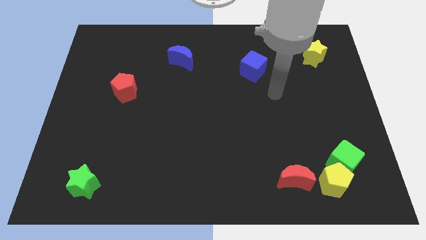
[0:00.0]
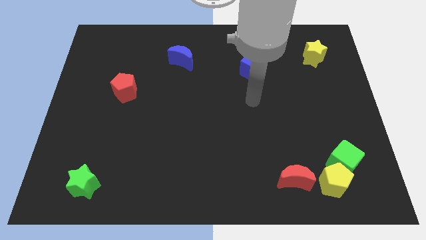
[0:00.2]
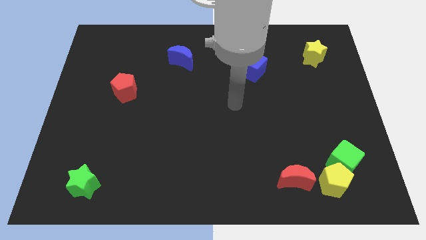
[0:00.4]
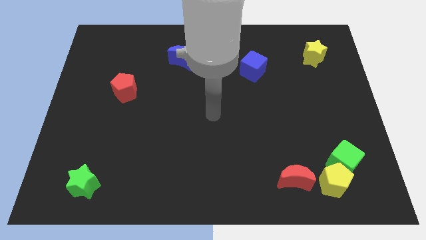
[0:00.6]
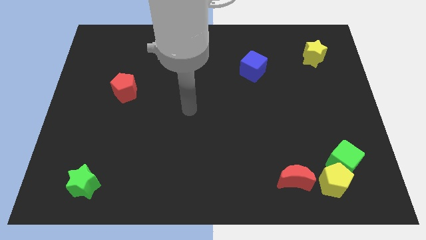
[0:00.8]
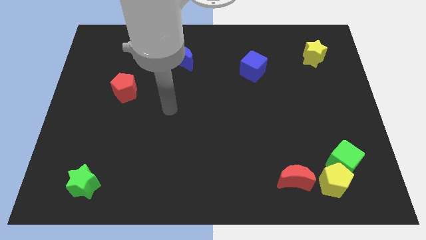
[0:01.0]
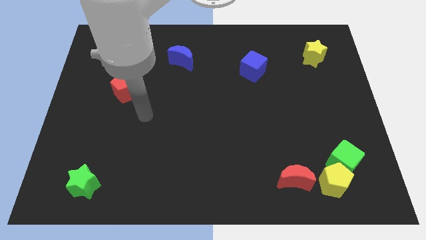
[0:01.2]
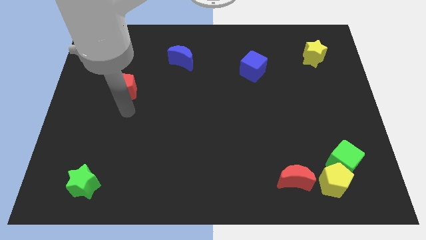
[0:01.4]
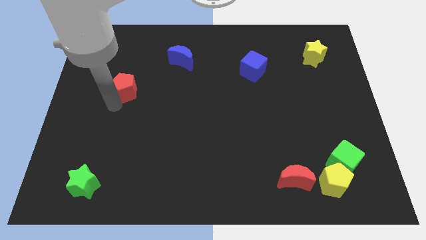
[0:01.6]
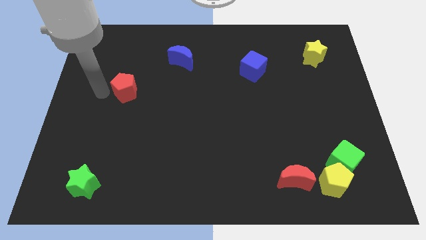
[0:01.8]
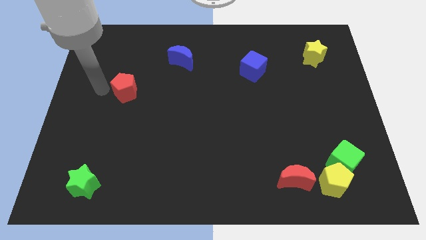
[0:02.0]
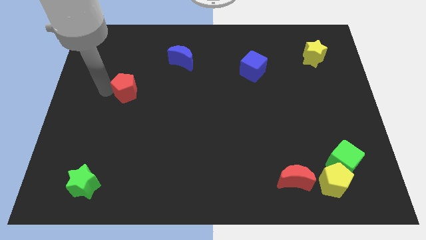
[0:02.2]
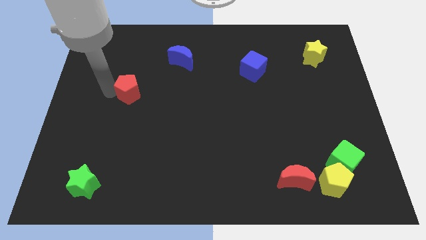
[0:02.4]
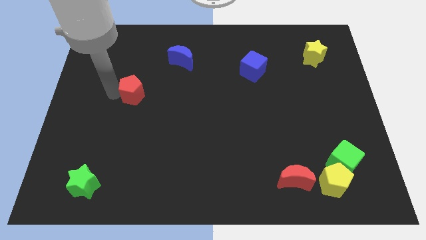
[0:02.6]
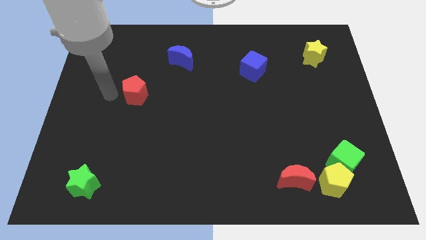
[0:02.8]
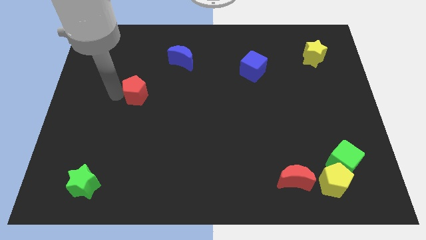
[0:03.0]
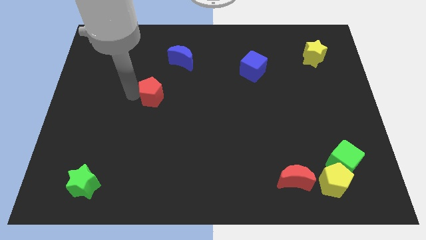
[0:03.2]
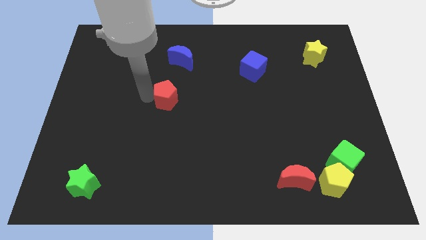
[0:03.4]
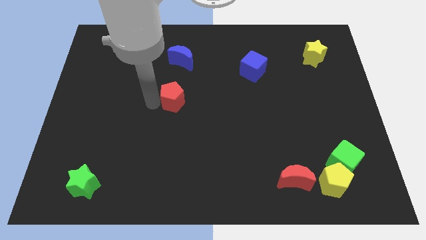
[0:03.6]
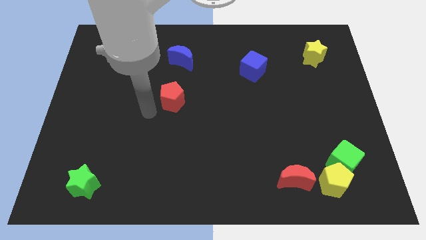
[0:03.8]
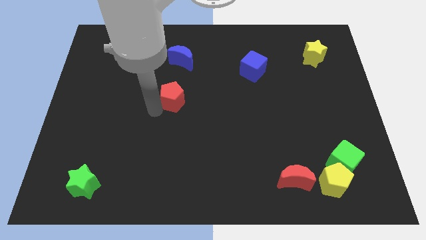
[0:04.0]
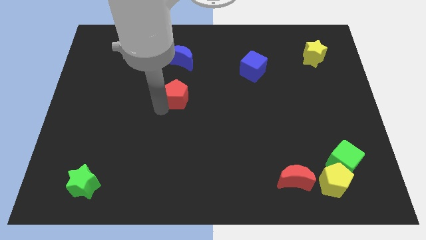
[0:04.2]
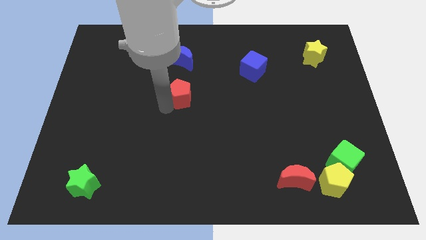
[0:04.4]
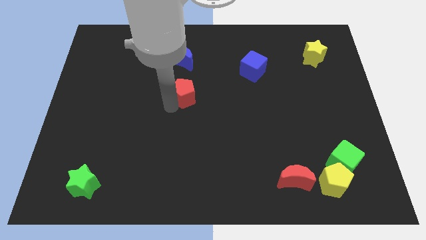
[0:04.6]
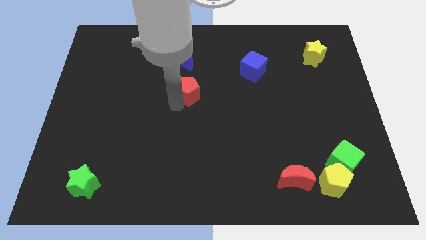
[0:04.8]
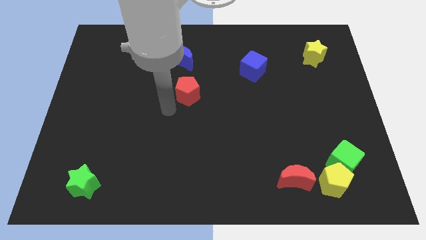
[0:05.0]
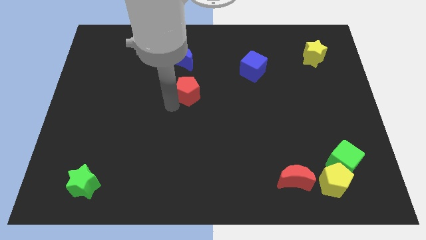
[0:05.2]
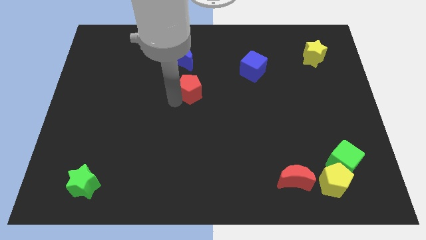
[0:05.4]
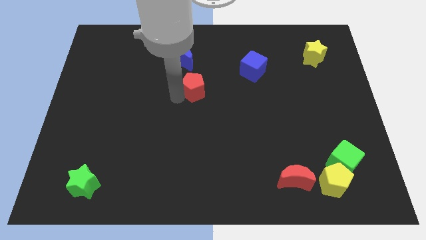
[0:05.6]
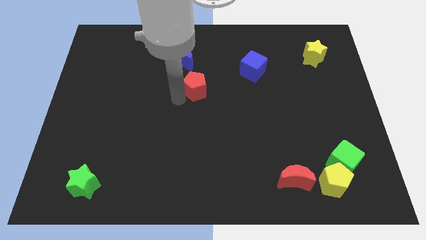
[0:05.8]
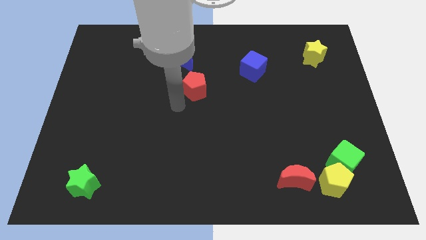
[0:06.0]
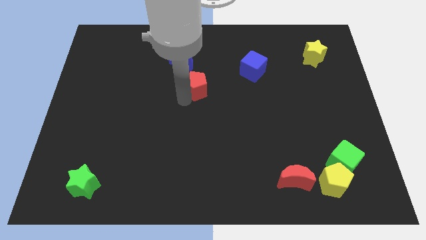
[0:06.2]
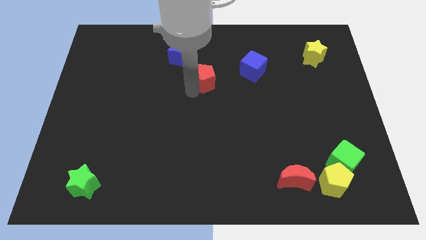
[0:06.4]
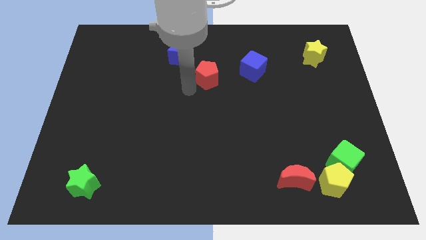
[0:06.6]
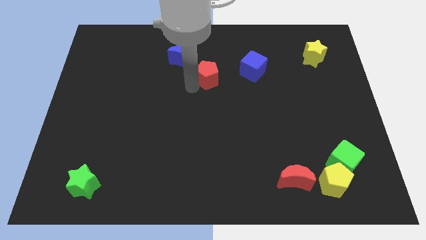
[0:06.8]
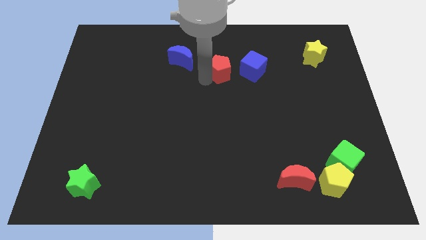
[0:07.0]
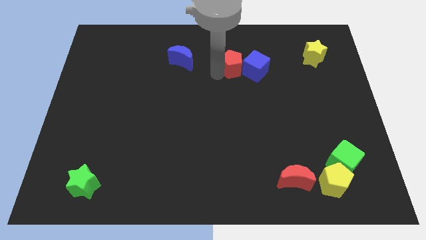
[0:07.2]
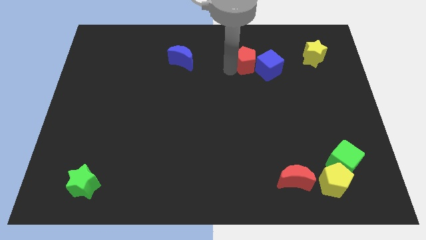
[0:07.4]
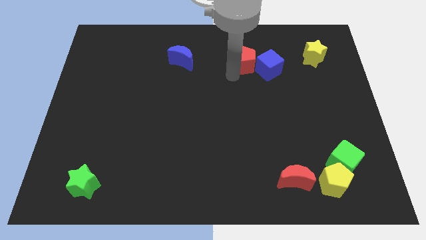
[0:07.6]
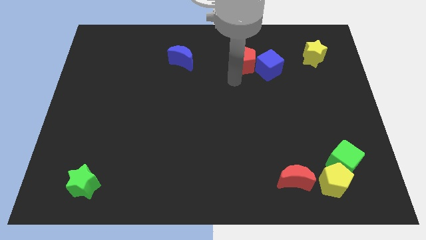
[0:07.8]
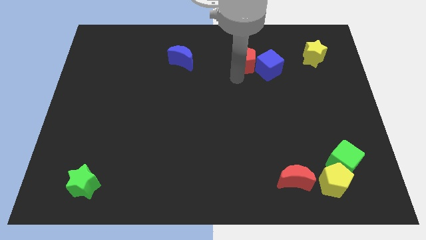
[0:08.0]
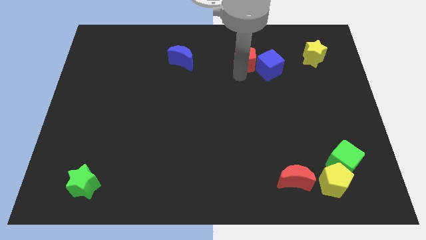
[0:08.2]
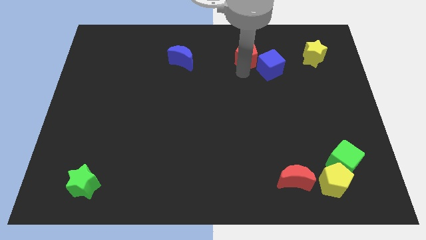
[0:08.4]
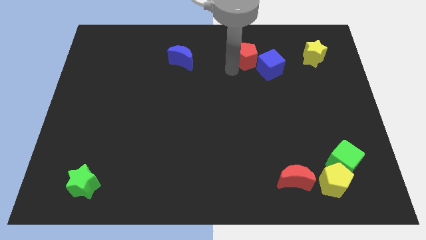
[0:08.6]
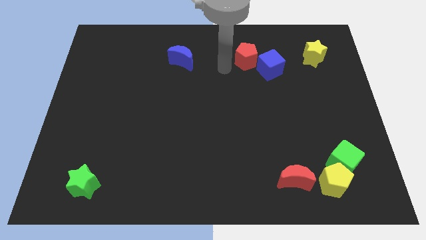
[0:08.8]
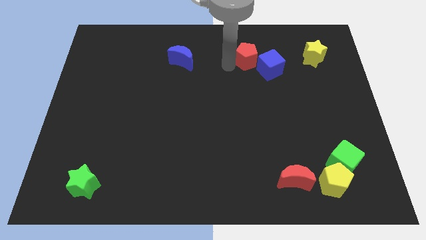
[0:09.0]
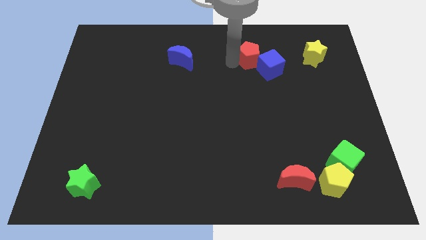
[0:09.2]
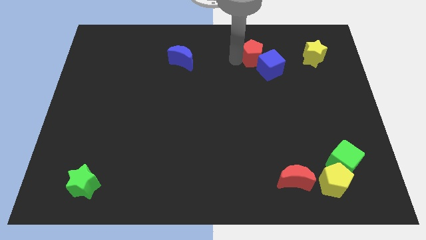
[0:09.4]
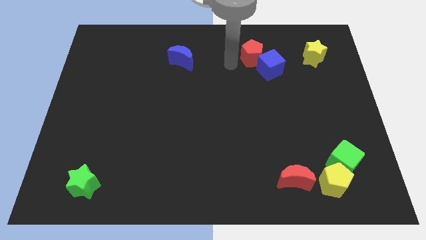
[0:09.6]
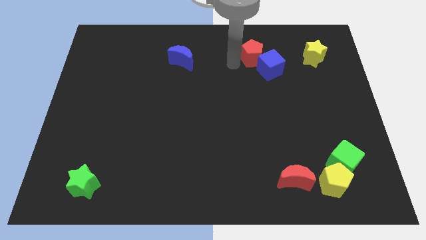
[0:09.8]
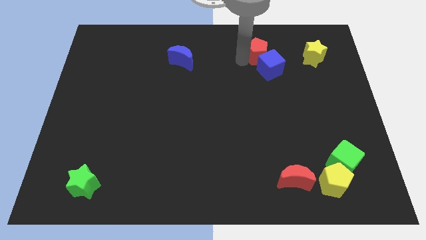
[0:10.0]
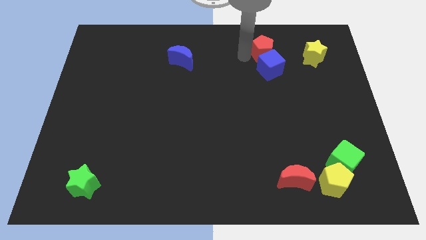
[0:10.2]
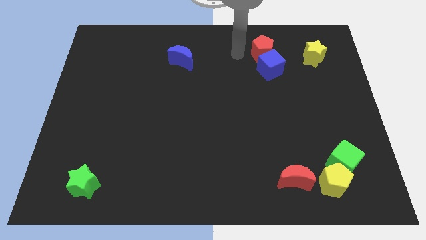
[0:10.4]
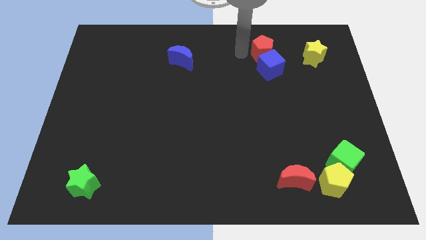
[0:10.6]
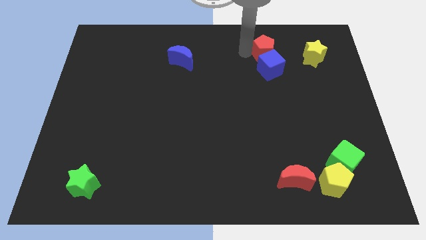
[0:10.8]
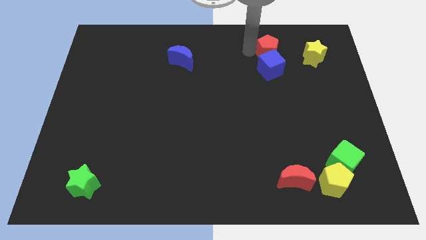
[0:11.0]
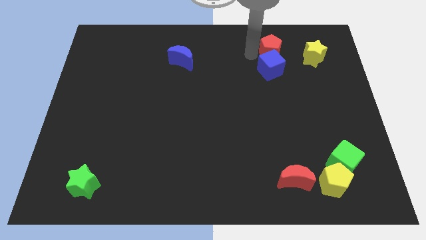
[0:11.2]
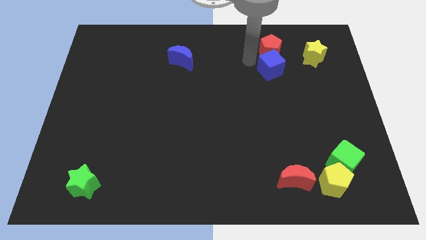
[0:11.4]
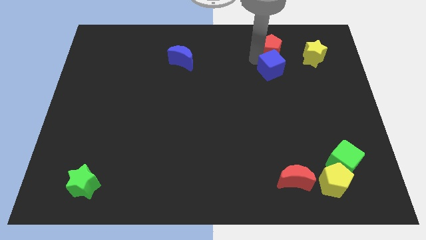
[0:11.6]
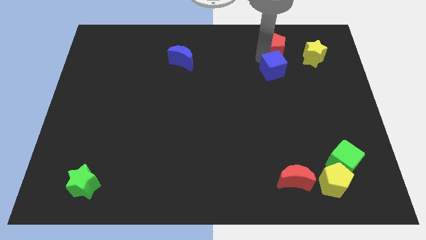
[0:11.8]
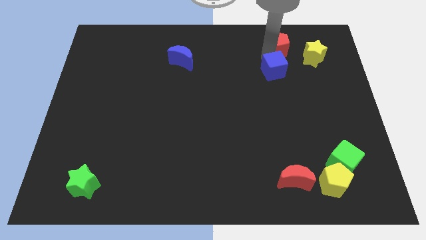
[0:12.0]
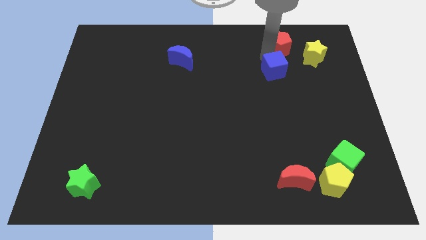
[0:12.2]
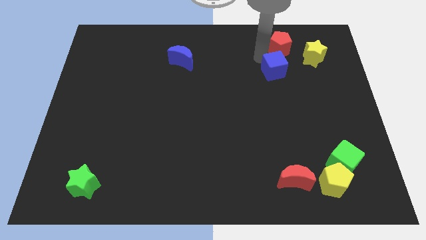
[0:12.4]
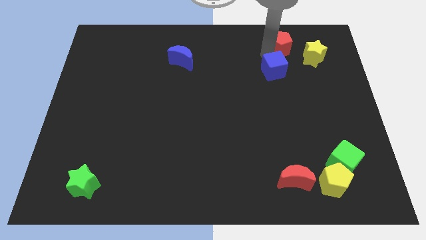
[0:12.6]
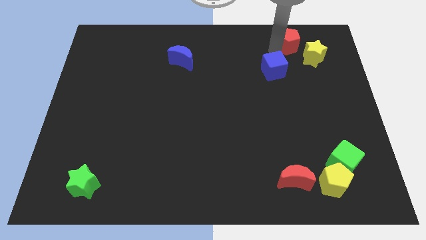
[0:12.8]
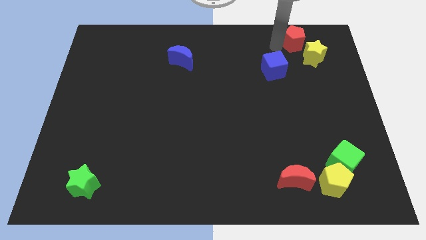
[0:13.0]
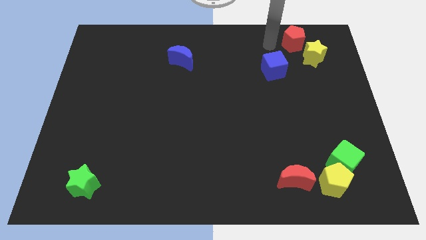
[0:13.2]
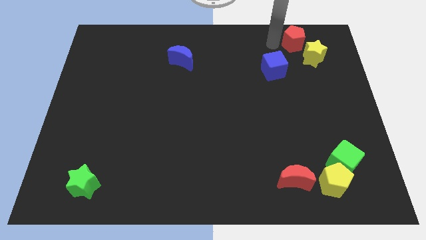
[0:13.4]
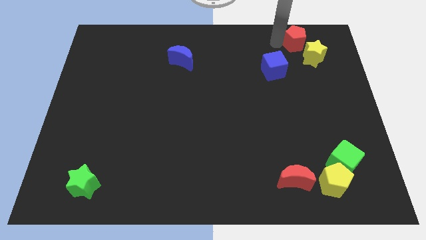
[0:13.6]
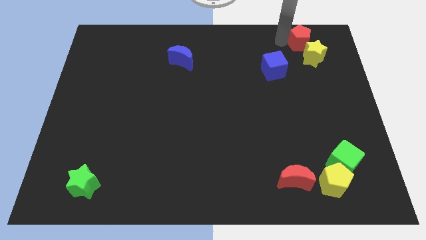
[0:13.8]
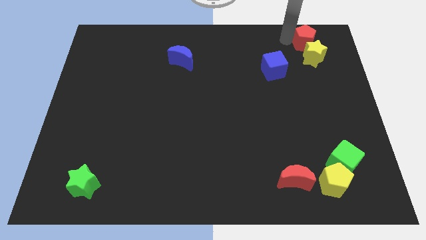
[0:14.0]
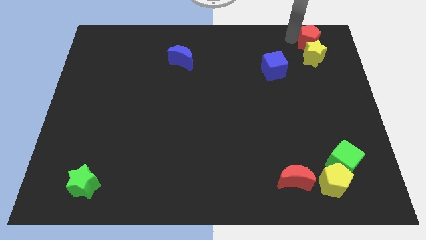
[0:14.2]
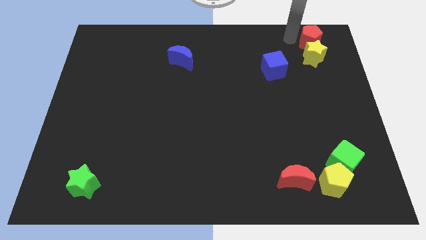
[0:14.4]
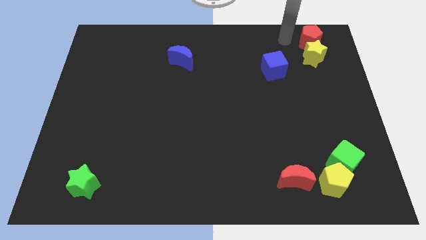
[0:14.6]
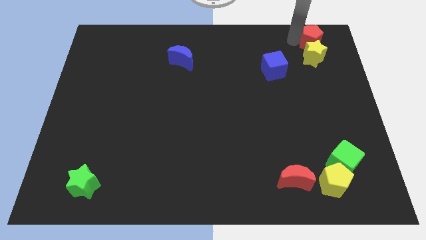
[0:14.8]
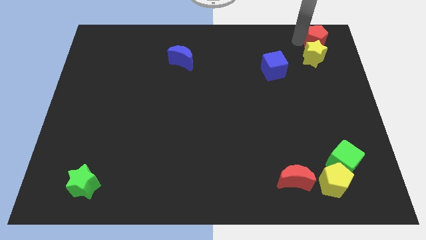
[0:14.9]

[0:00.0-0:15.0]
slide the red pentagon to the top right
